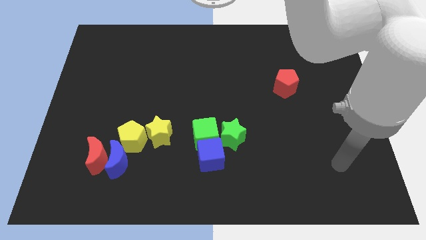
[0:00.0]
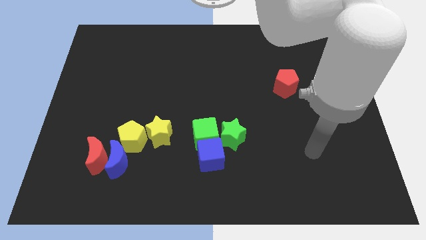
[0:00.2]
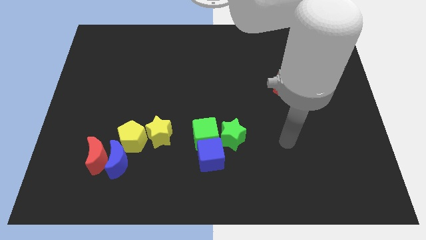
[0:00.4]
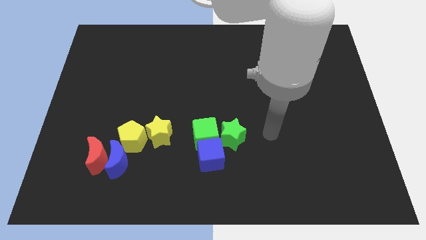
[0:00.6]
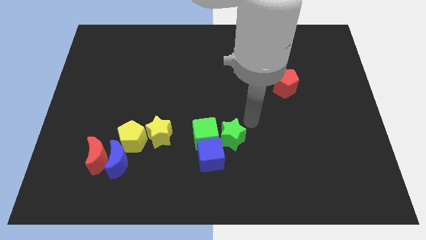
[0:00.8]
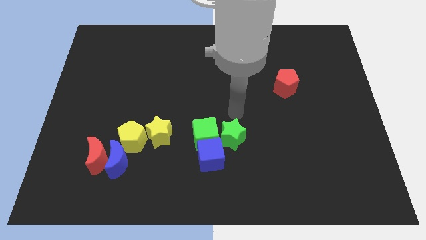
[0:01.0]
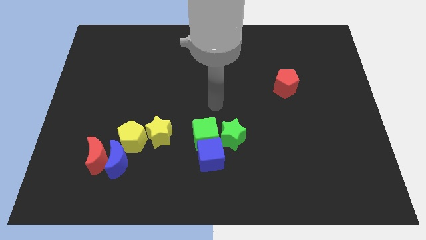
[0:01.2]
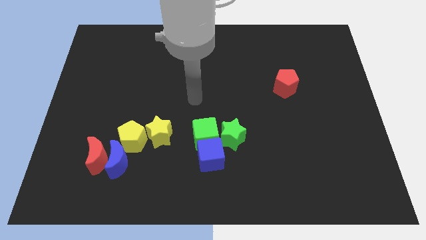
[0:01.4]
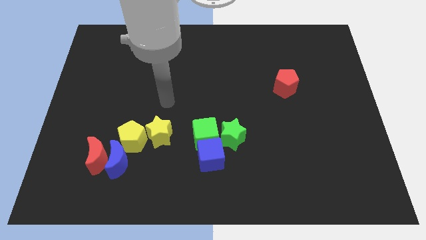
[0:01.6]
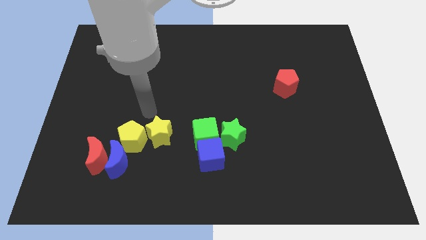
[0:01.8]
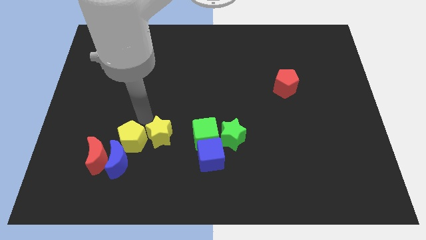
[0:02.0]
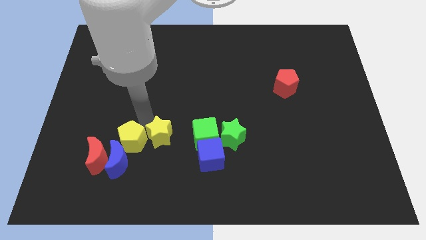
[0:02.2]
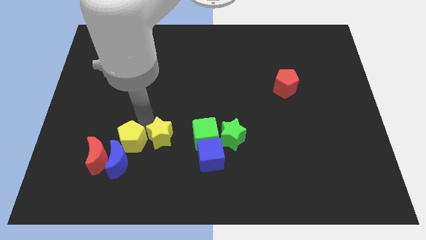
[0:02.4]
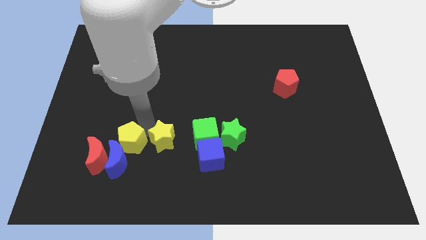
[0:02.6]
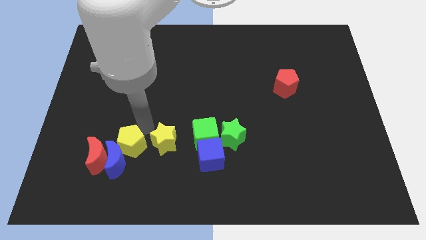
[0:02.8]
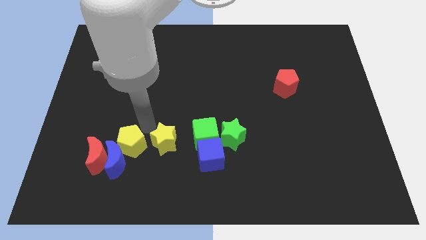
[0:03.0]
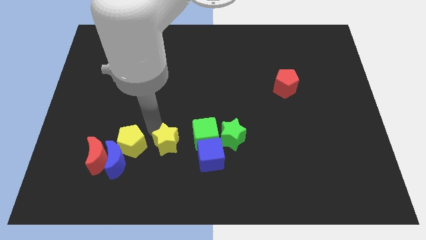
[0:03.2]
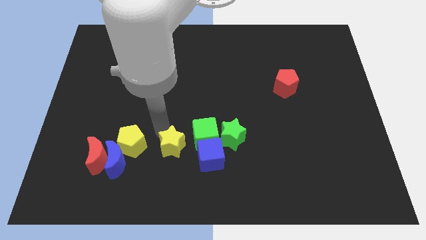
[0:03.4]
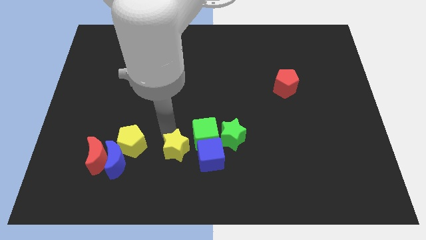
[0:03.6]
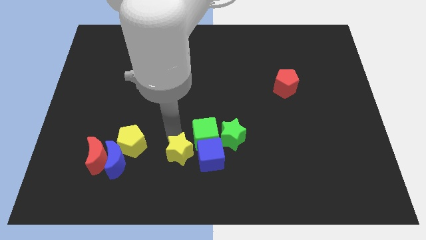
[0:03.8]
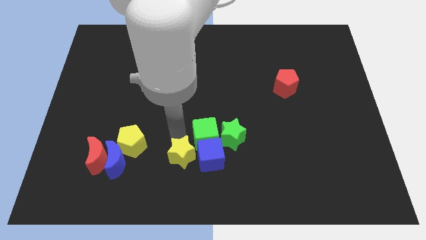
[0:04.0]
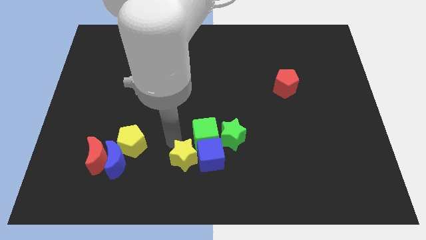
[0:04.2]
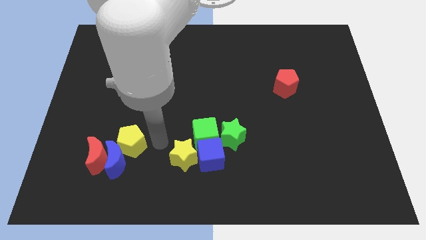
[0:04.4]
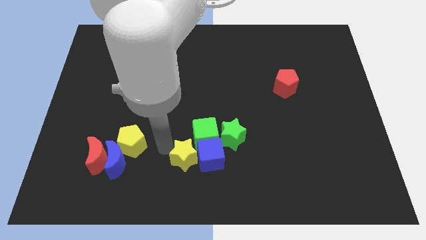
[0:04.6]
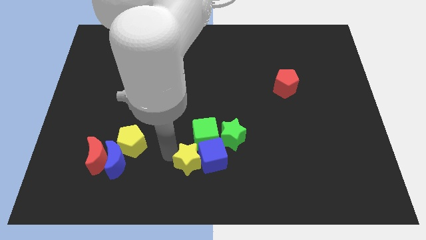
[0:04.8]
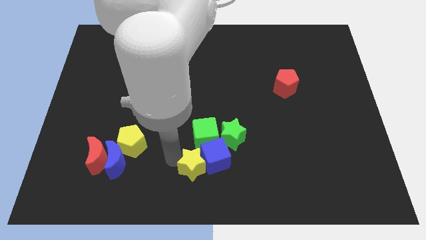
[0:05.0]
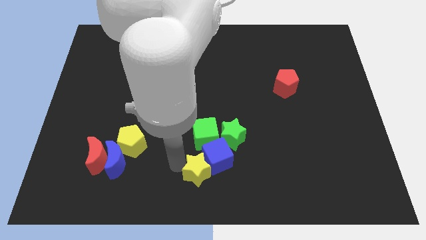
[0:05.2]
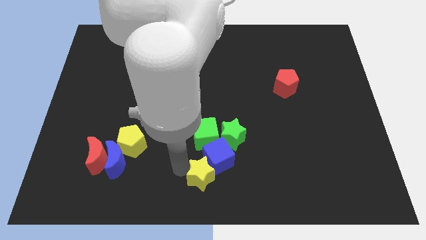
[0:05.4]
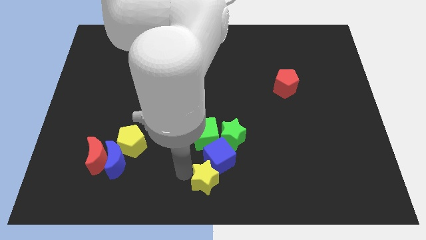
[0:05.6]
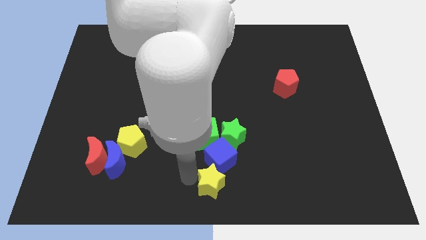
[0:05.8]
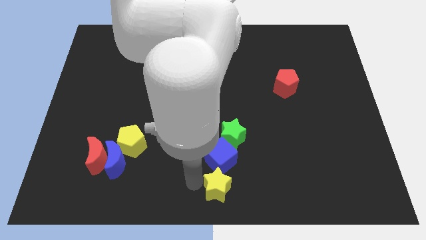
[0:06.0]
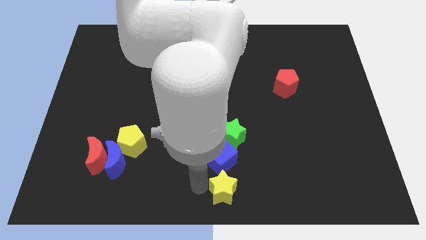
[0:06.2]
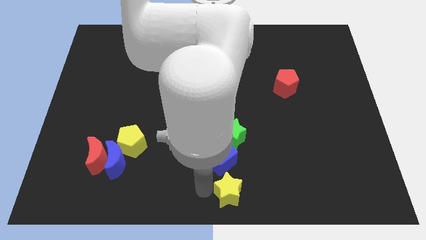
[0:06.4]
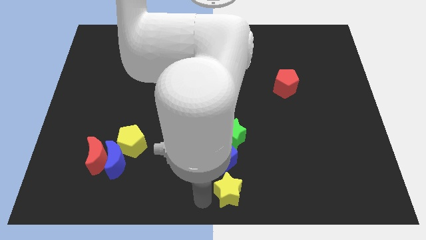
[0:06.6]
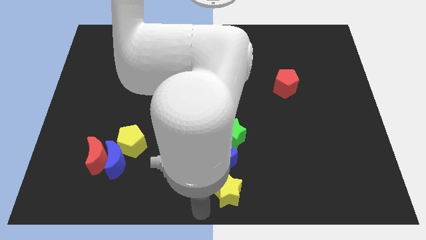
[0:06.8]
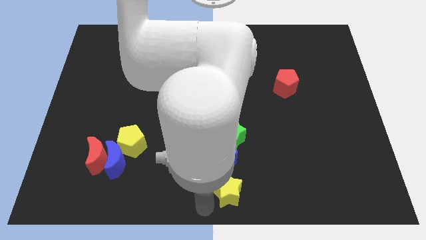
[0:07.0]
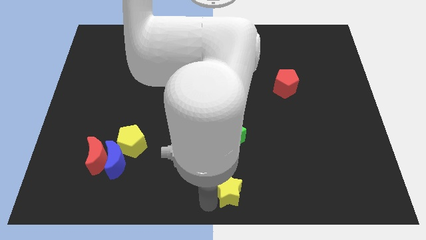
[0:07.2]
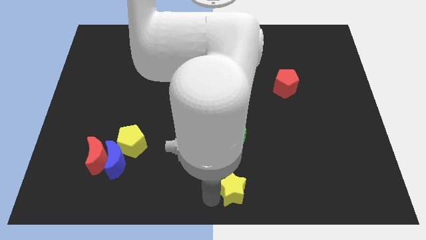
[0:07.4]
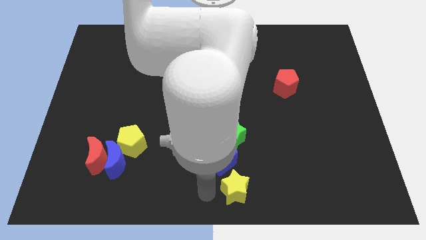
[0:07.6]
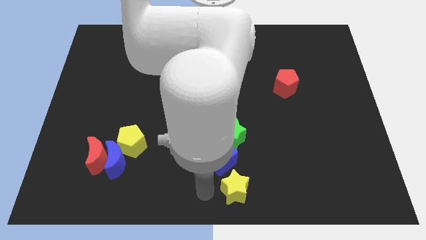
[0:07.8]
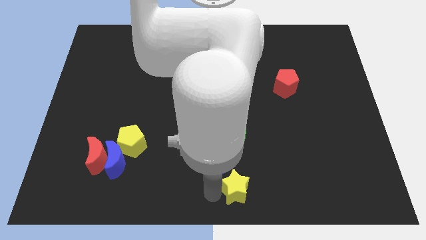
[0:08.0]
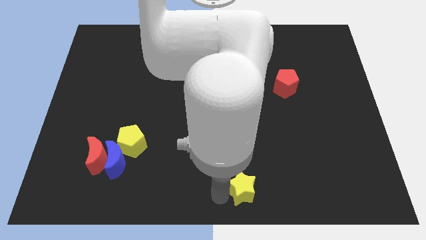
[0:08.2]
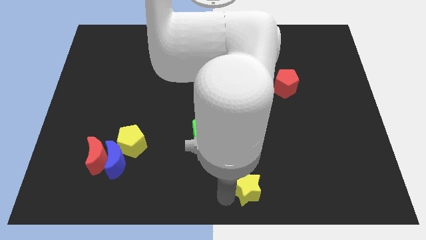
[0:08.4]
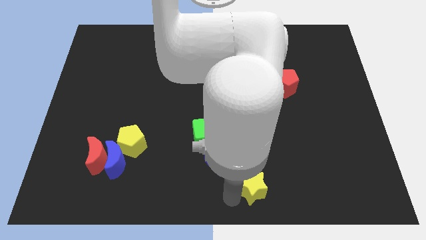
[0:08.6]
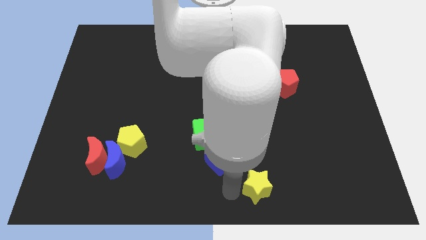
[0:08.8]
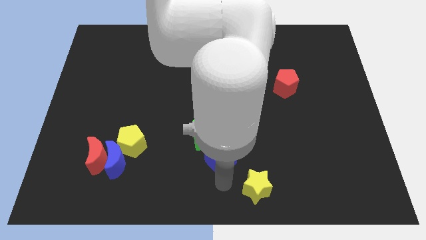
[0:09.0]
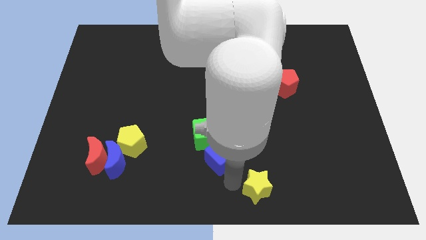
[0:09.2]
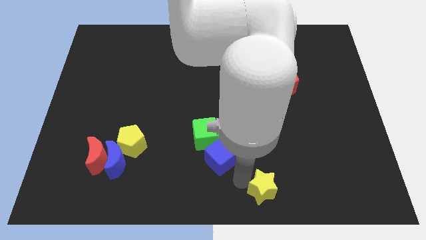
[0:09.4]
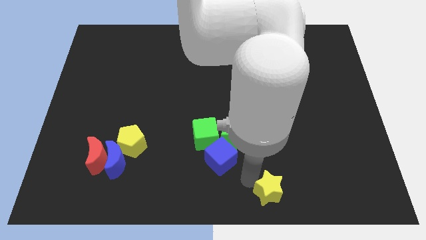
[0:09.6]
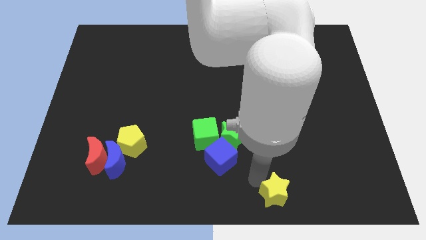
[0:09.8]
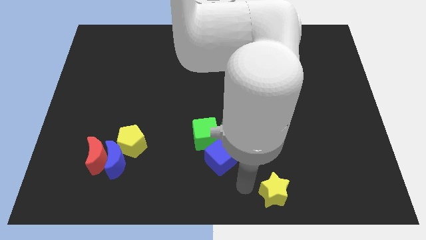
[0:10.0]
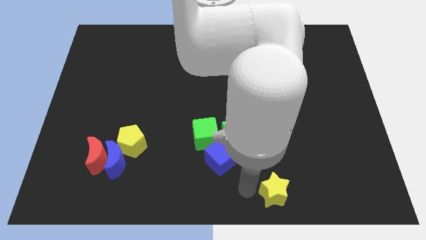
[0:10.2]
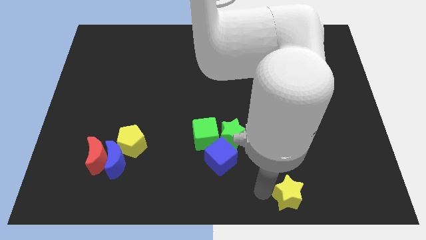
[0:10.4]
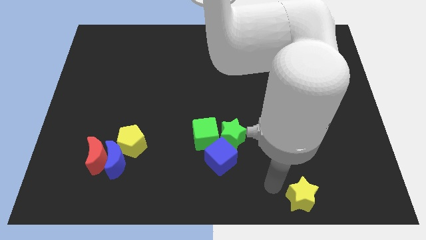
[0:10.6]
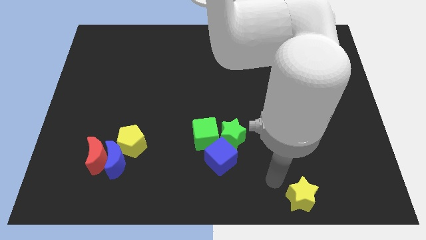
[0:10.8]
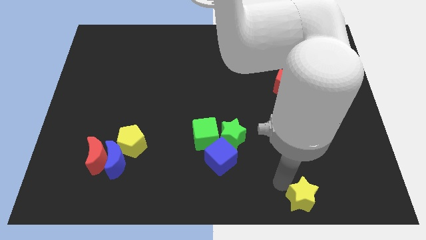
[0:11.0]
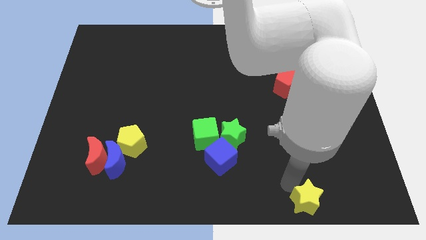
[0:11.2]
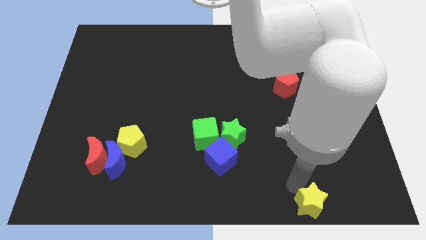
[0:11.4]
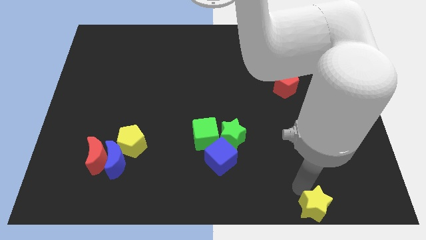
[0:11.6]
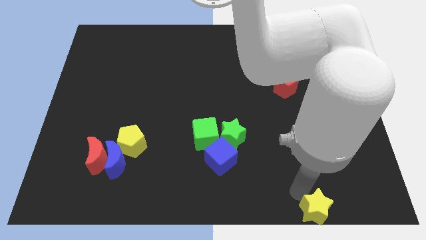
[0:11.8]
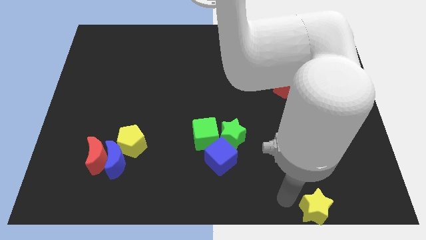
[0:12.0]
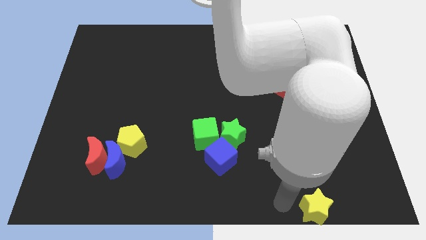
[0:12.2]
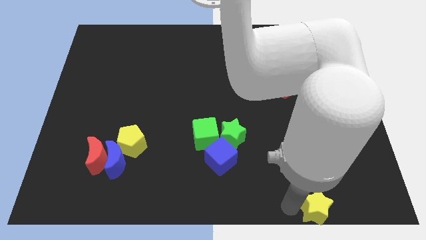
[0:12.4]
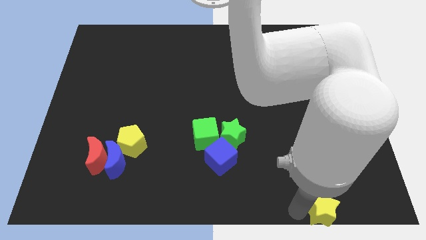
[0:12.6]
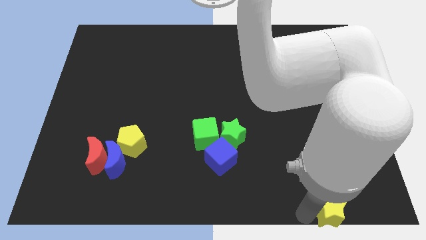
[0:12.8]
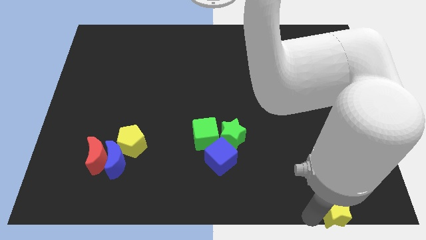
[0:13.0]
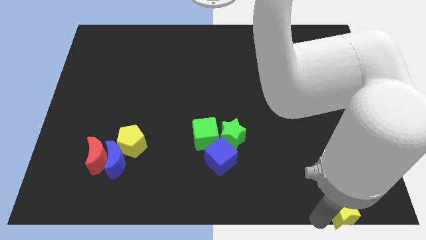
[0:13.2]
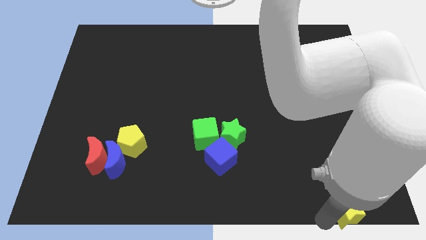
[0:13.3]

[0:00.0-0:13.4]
push the yellow star to the bottom right of the board

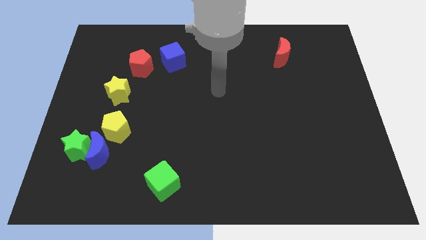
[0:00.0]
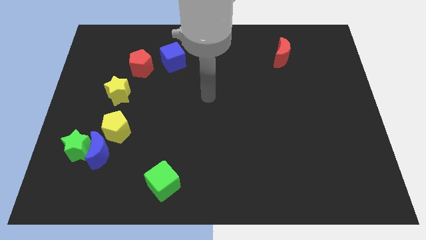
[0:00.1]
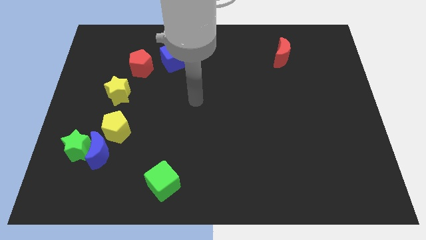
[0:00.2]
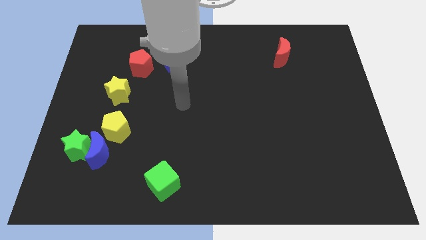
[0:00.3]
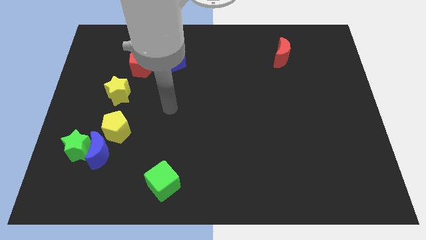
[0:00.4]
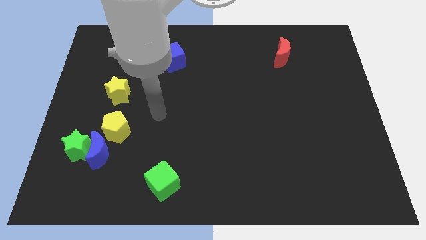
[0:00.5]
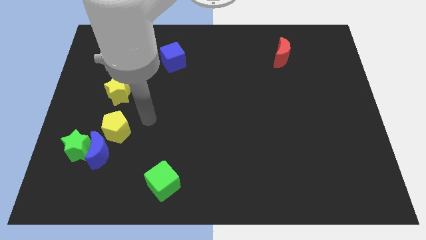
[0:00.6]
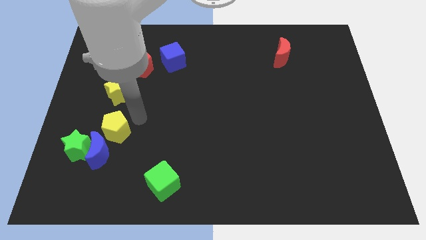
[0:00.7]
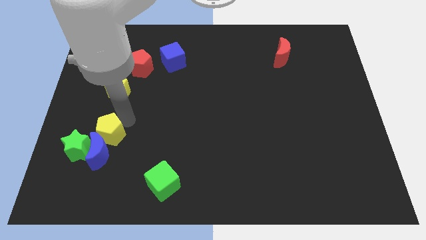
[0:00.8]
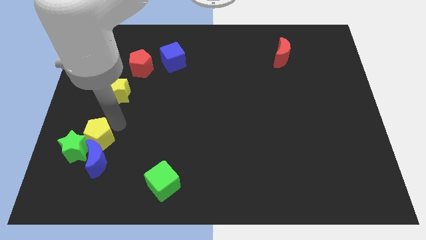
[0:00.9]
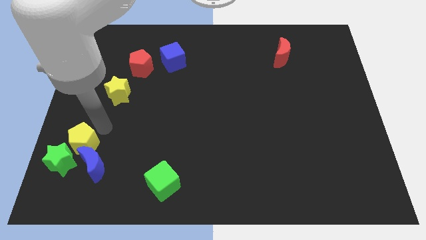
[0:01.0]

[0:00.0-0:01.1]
slide the green star to the bottom left of the board
